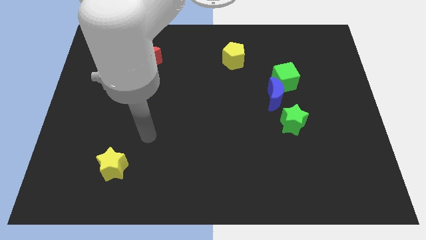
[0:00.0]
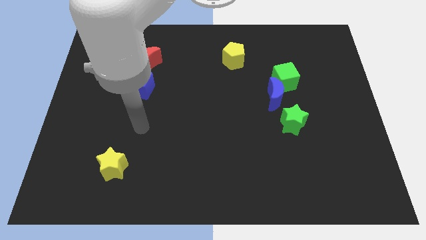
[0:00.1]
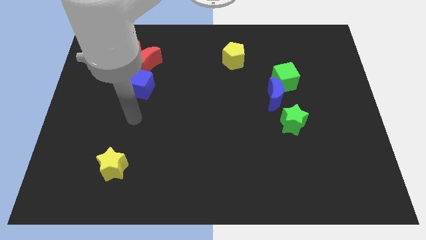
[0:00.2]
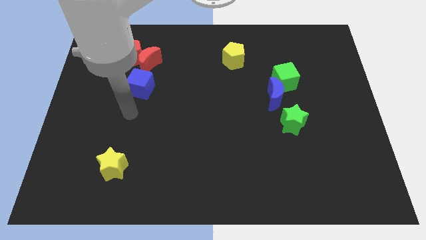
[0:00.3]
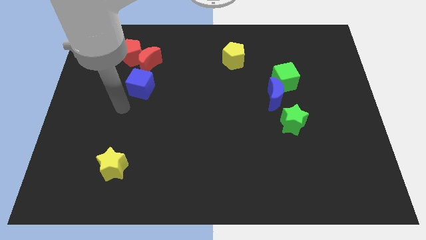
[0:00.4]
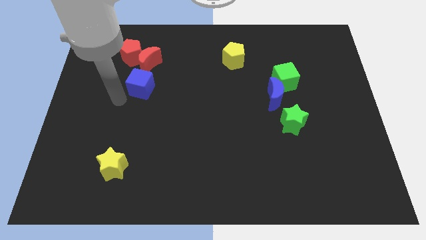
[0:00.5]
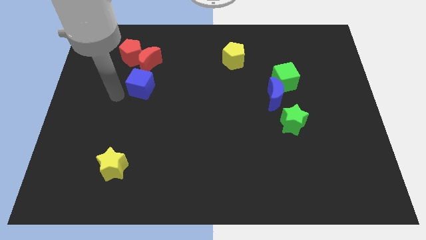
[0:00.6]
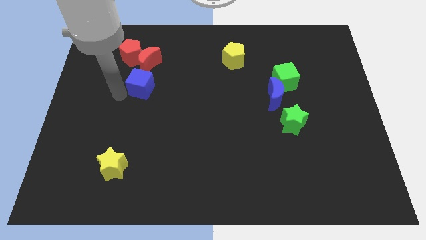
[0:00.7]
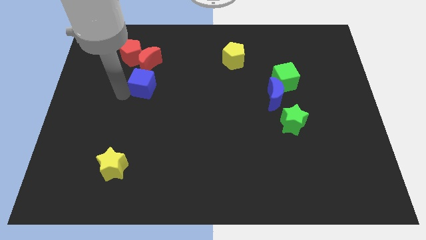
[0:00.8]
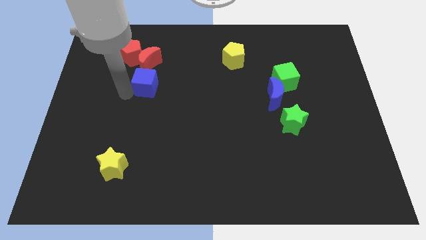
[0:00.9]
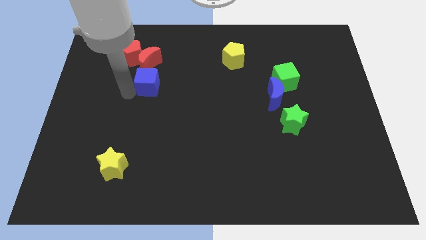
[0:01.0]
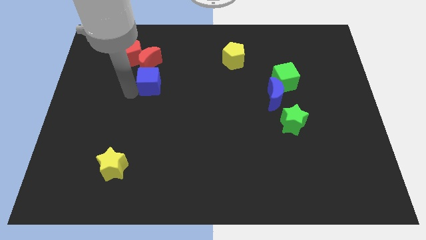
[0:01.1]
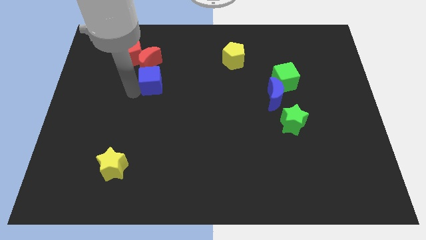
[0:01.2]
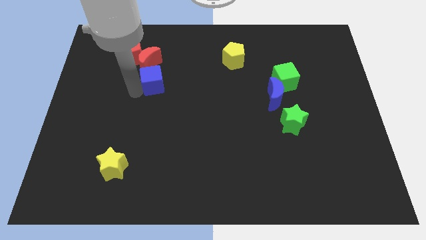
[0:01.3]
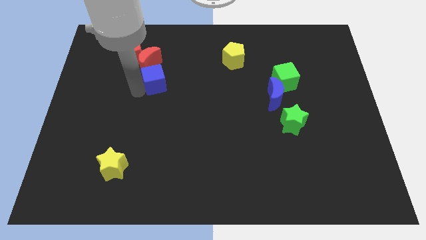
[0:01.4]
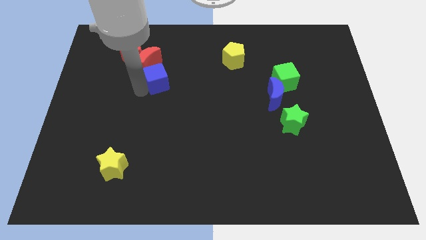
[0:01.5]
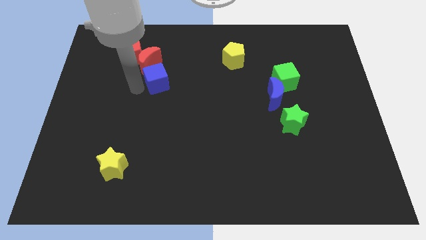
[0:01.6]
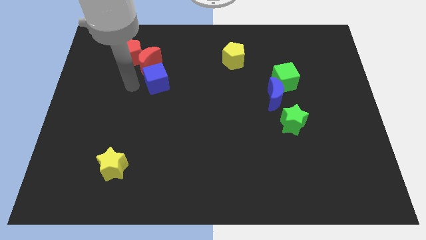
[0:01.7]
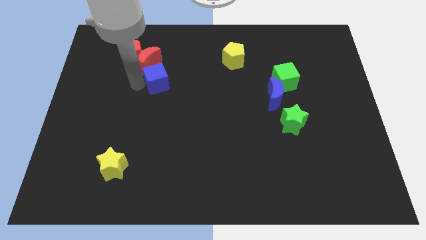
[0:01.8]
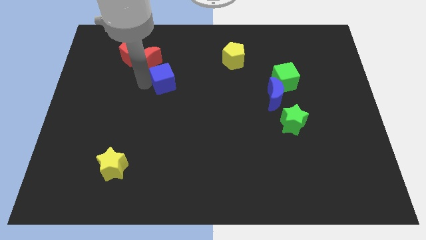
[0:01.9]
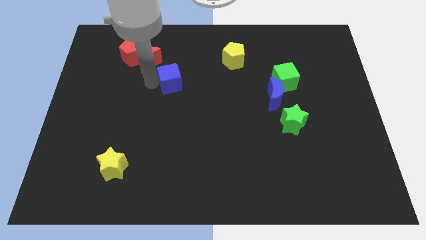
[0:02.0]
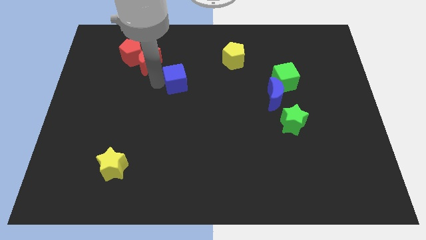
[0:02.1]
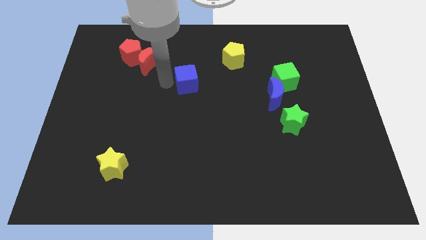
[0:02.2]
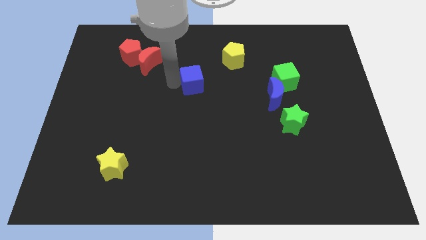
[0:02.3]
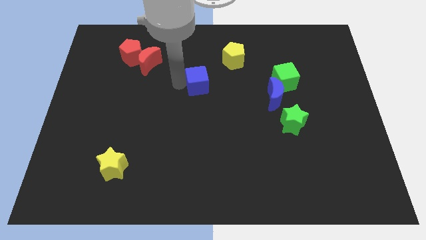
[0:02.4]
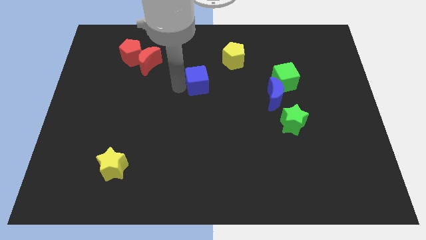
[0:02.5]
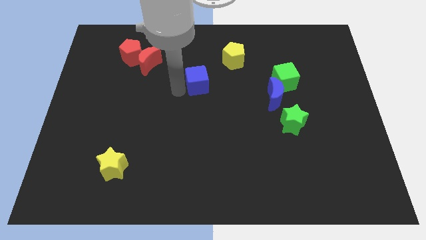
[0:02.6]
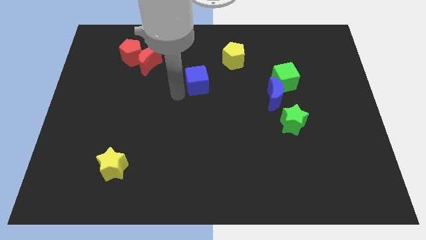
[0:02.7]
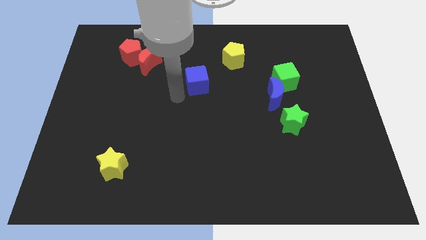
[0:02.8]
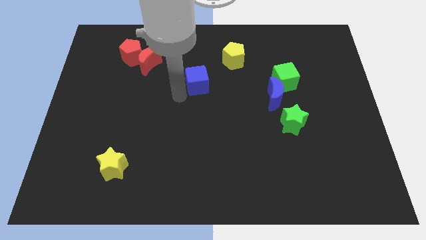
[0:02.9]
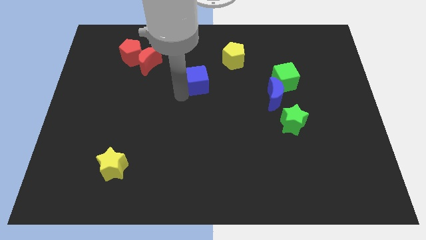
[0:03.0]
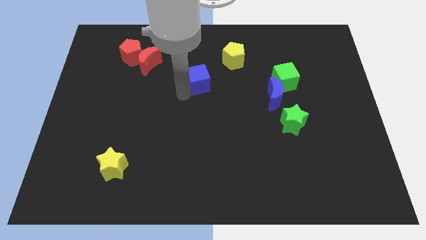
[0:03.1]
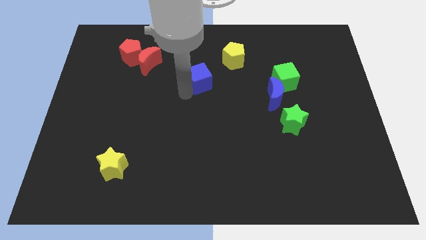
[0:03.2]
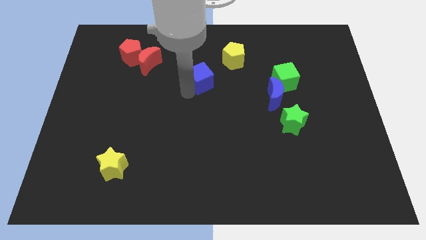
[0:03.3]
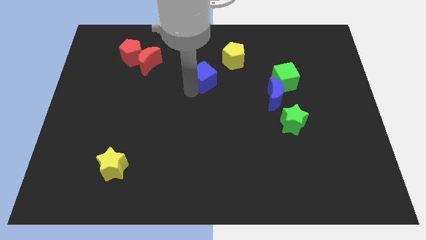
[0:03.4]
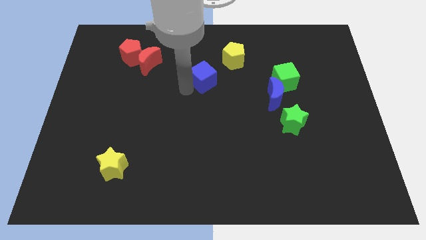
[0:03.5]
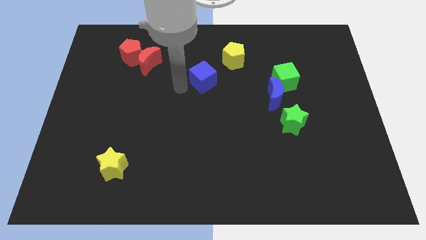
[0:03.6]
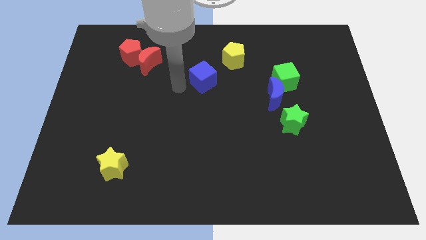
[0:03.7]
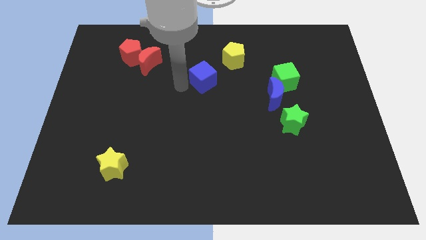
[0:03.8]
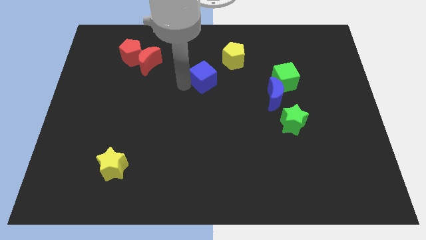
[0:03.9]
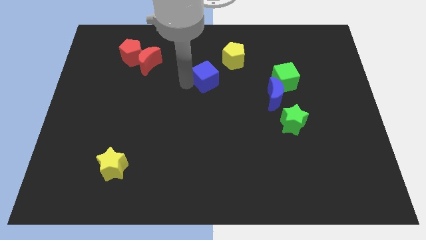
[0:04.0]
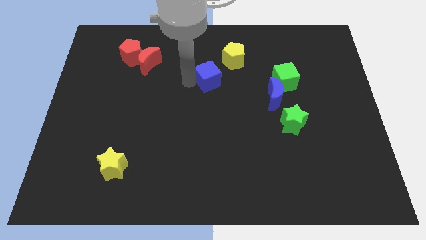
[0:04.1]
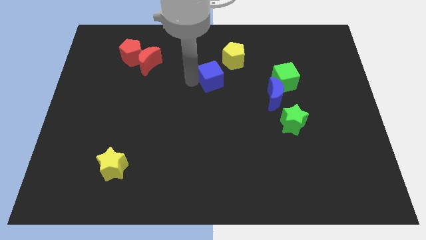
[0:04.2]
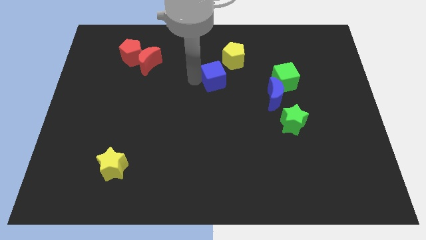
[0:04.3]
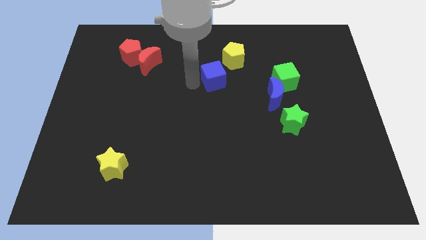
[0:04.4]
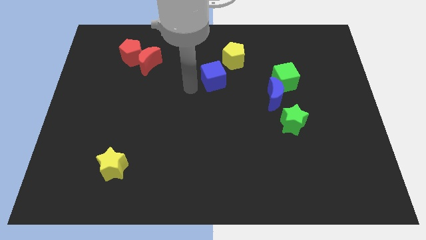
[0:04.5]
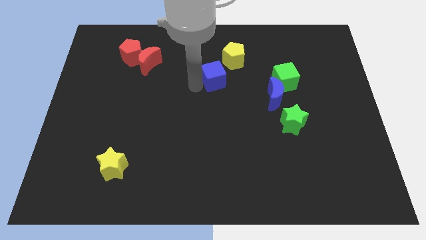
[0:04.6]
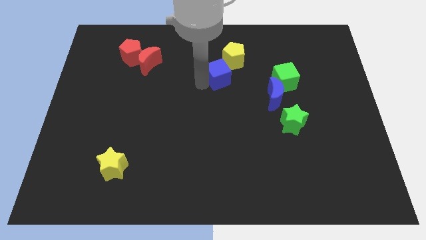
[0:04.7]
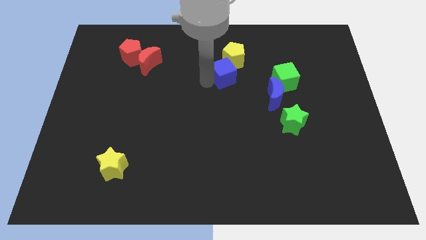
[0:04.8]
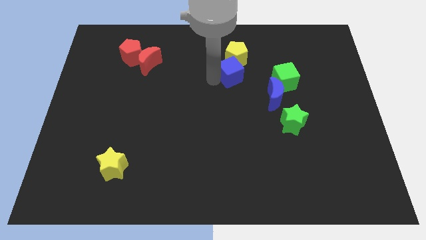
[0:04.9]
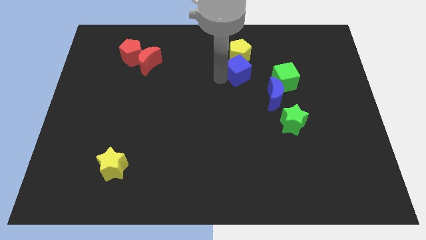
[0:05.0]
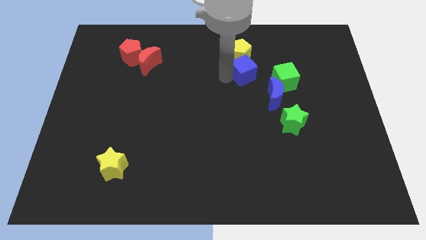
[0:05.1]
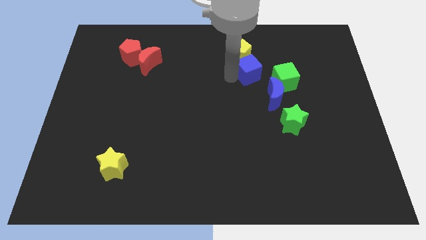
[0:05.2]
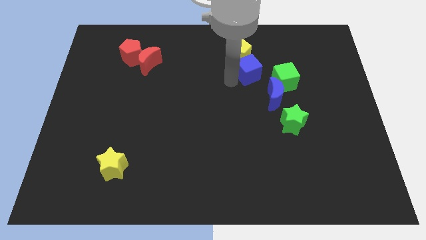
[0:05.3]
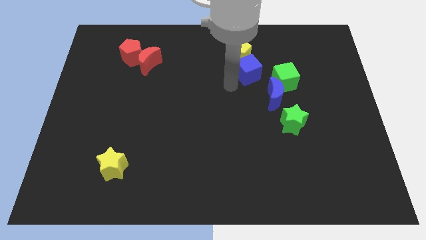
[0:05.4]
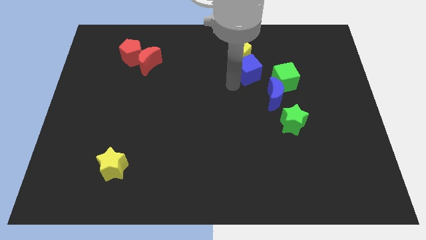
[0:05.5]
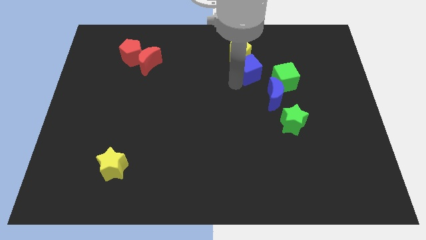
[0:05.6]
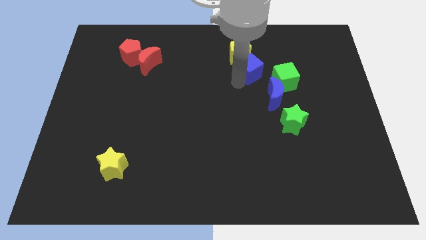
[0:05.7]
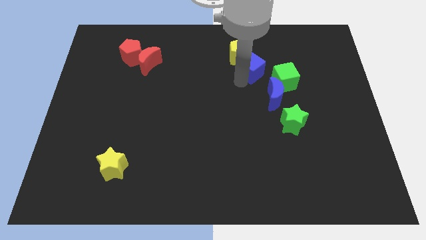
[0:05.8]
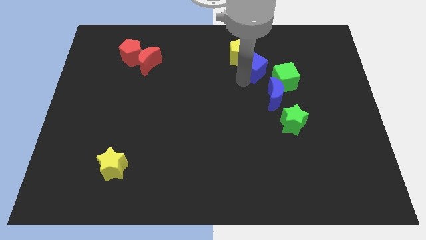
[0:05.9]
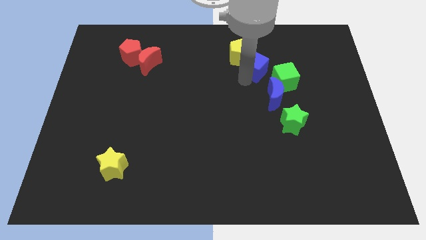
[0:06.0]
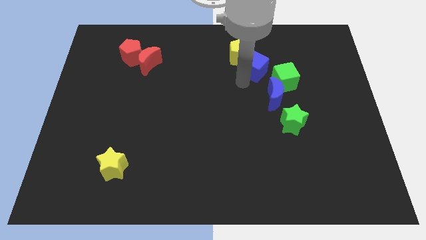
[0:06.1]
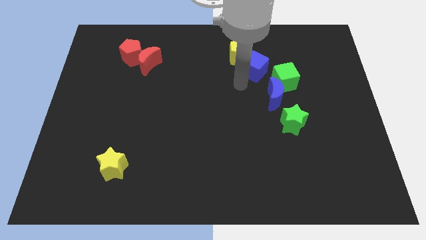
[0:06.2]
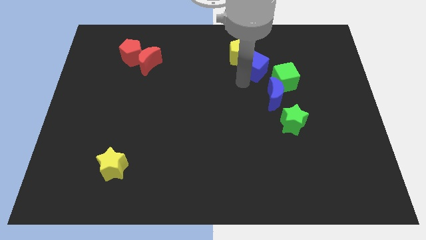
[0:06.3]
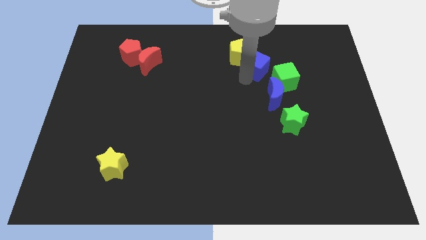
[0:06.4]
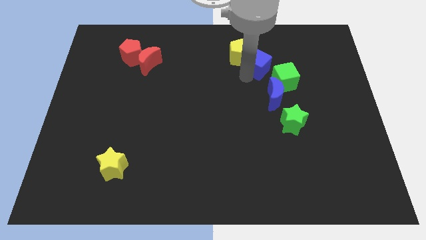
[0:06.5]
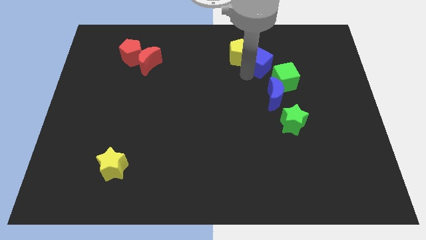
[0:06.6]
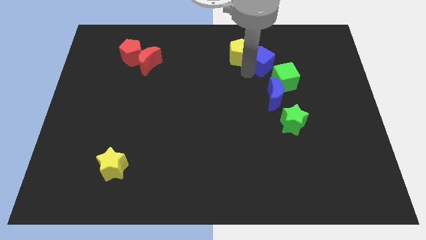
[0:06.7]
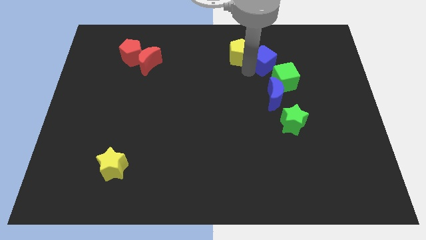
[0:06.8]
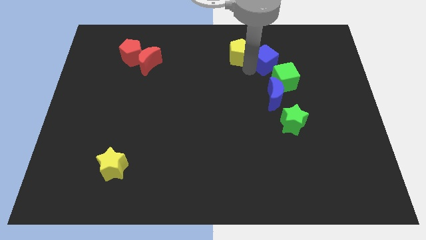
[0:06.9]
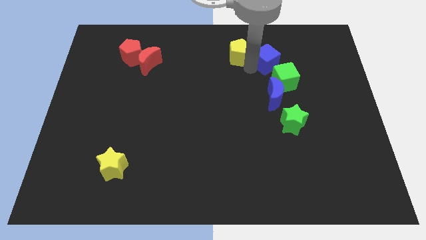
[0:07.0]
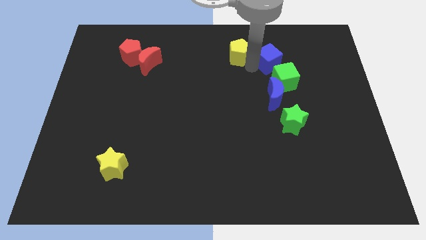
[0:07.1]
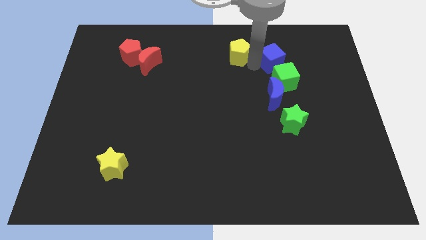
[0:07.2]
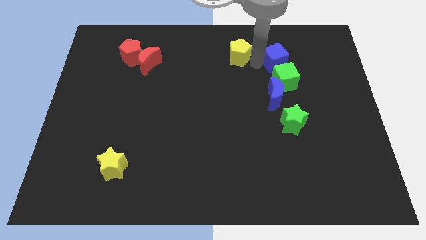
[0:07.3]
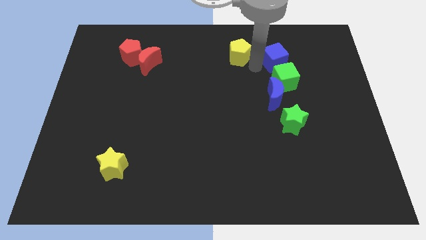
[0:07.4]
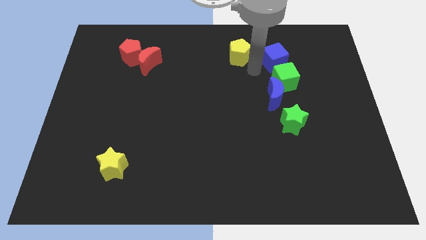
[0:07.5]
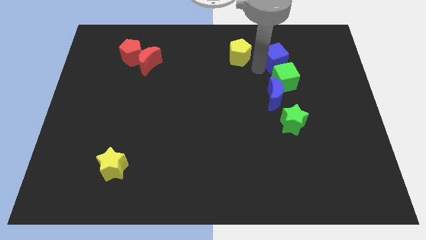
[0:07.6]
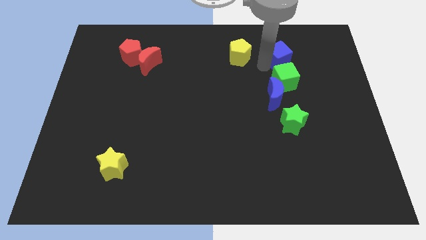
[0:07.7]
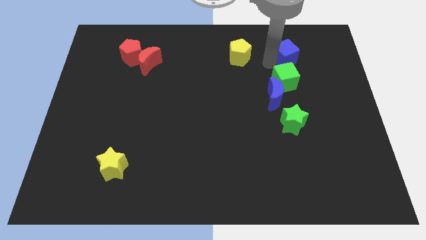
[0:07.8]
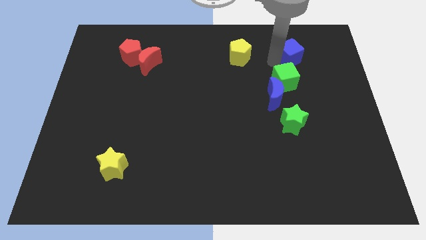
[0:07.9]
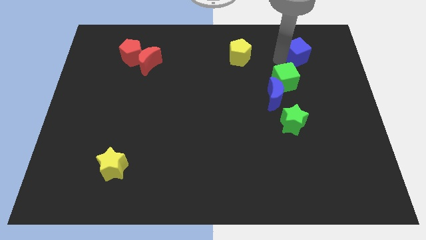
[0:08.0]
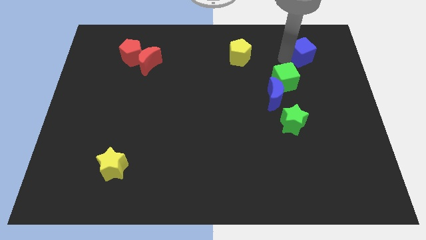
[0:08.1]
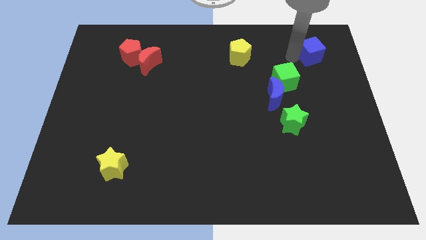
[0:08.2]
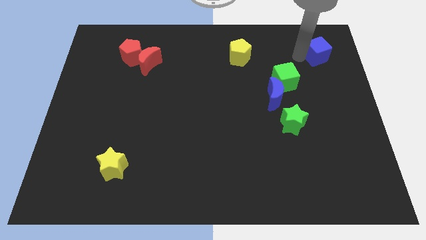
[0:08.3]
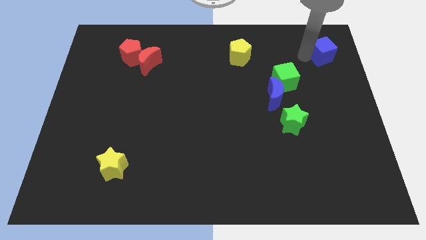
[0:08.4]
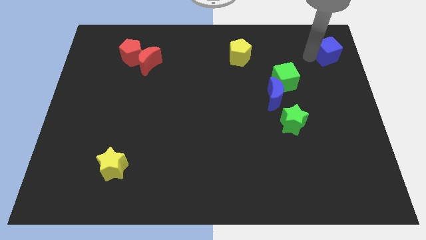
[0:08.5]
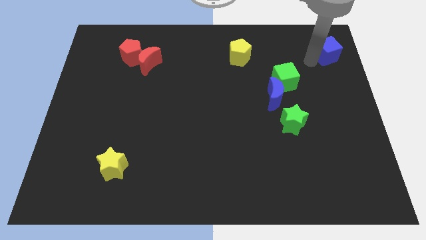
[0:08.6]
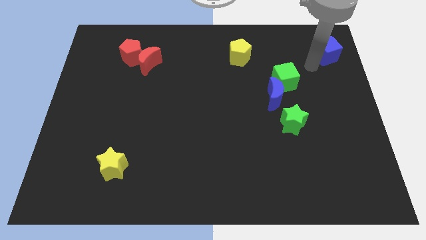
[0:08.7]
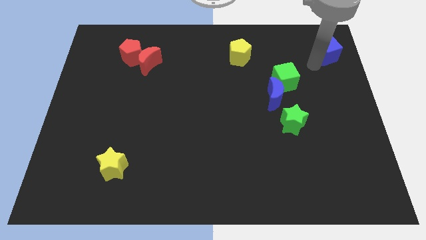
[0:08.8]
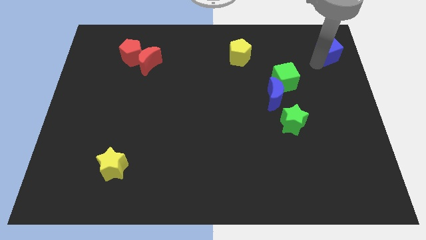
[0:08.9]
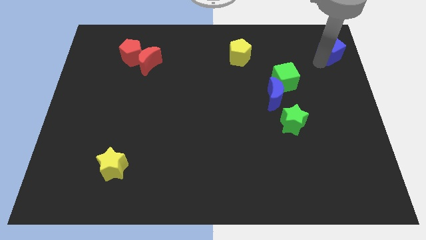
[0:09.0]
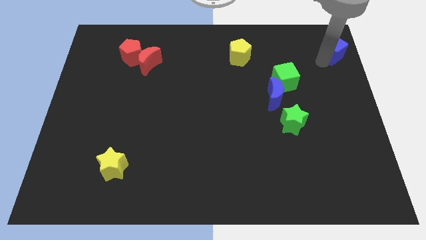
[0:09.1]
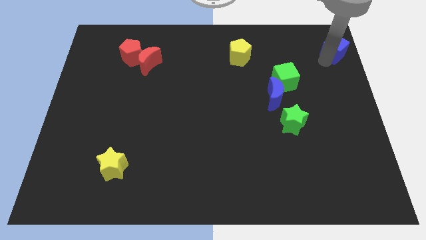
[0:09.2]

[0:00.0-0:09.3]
slide the blue cube to the top right of the board
